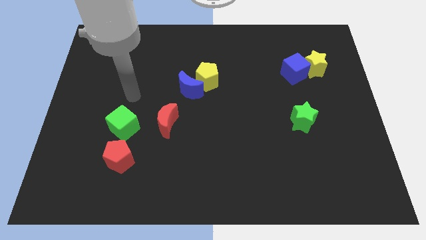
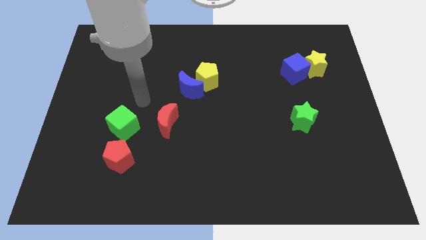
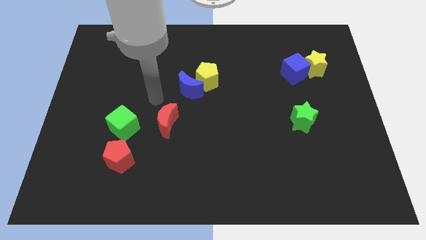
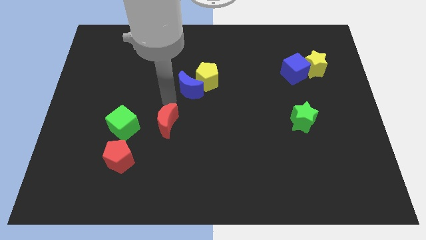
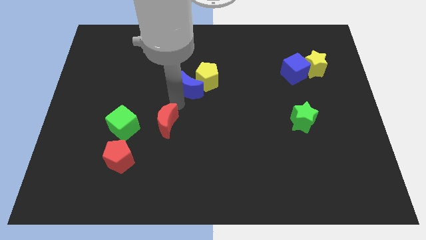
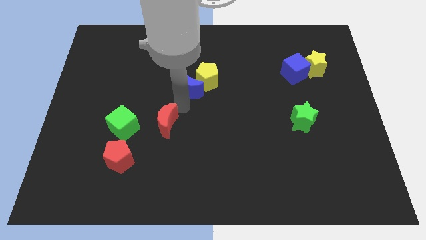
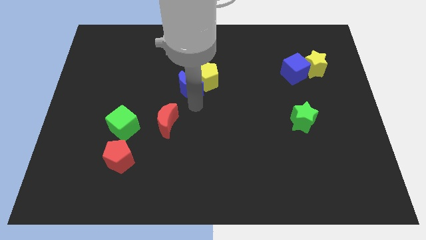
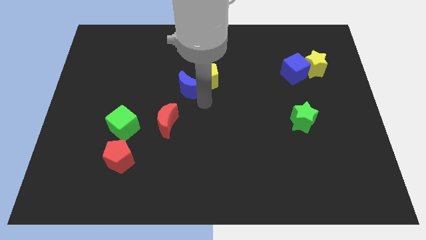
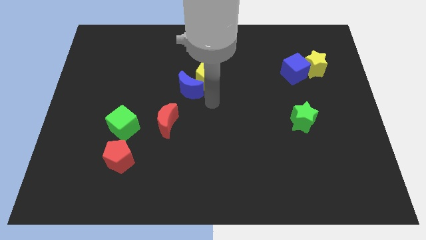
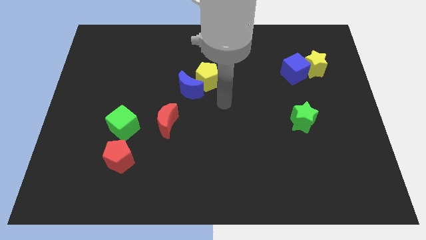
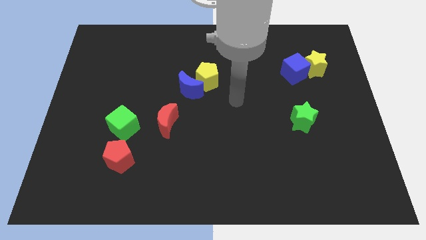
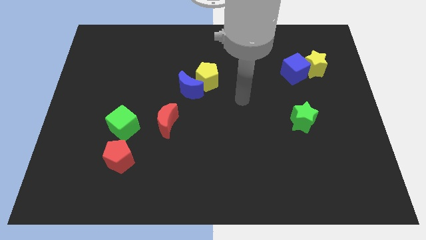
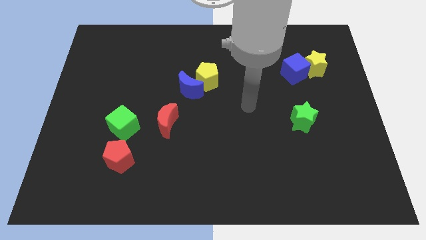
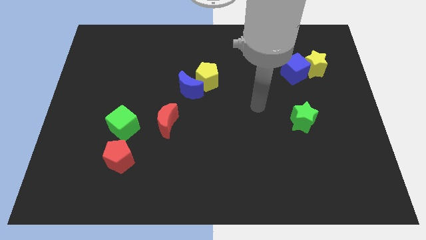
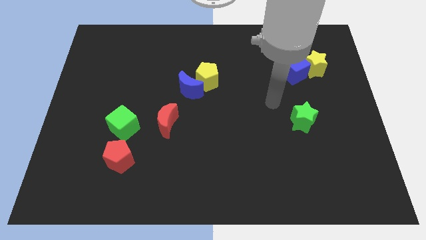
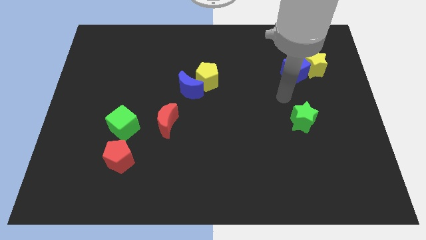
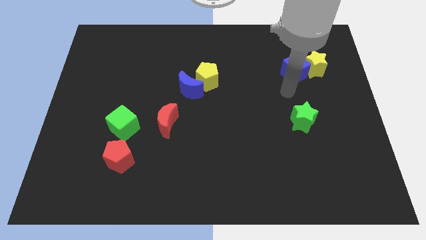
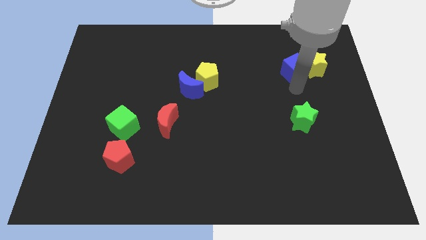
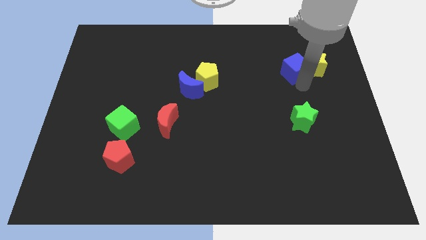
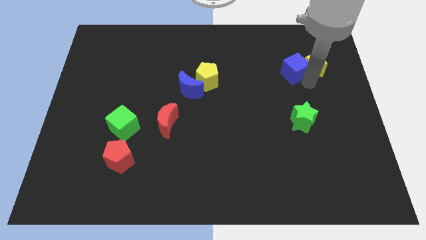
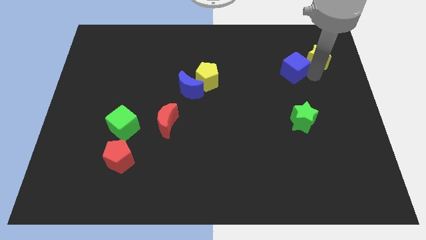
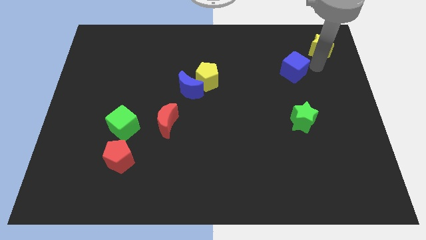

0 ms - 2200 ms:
pull the blue cube apart from the yellow star

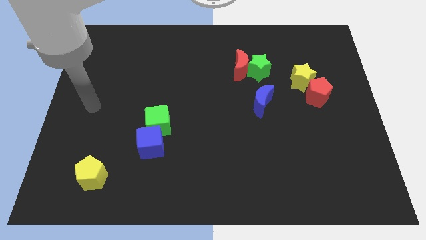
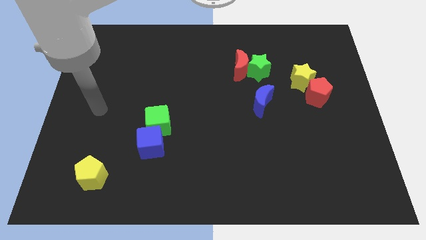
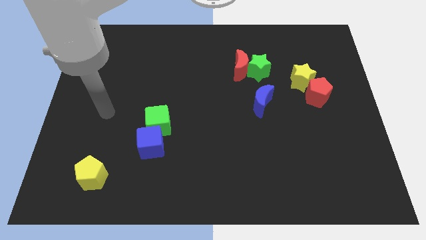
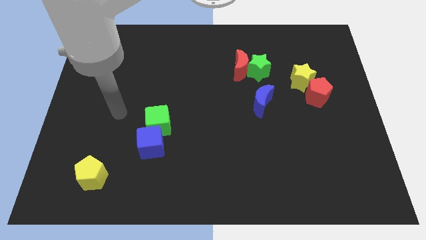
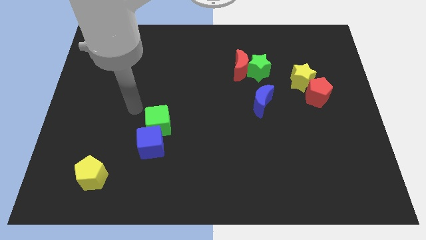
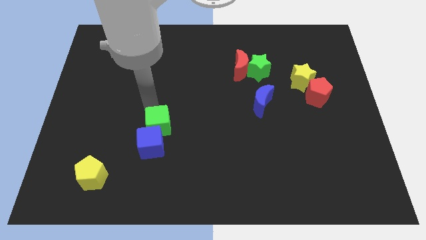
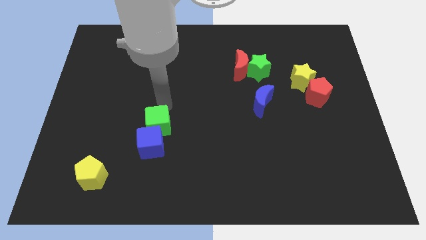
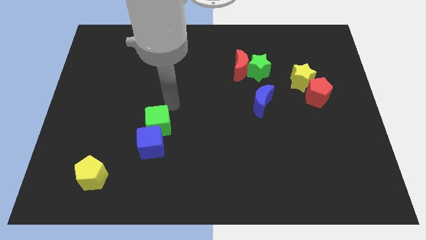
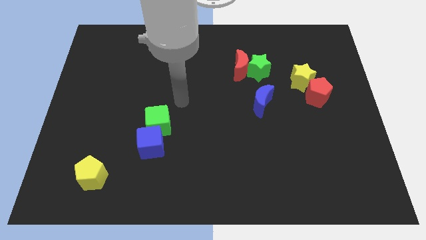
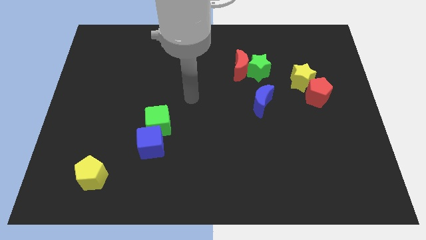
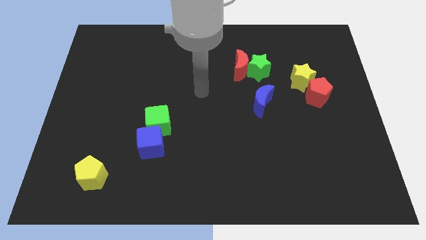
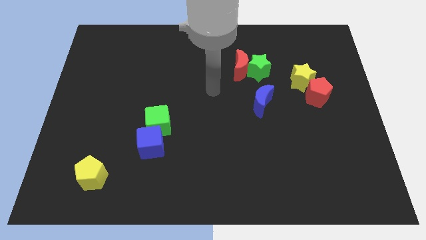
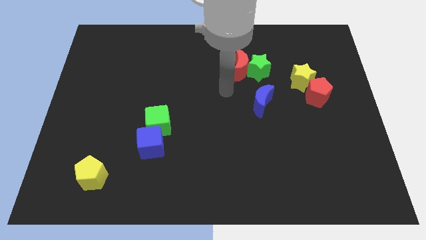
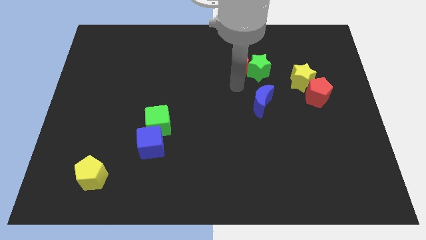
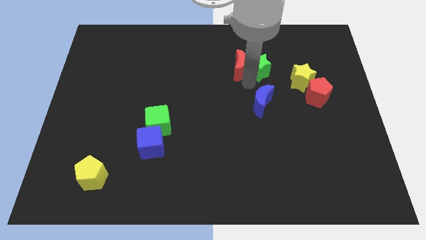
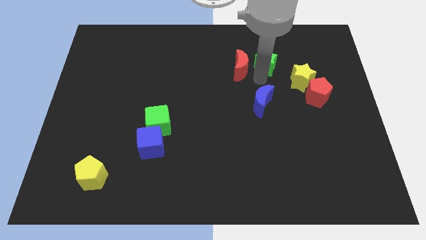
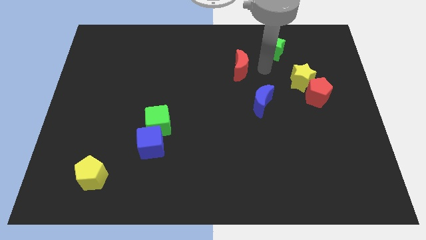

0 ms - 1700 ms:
pull the red moon apart from the green star

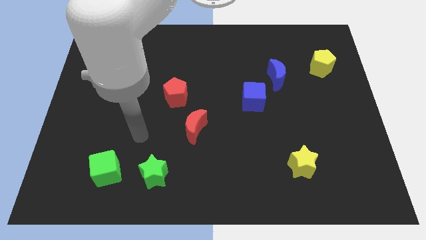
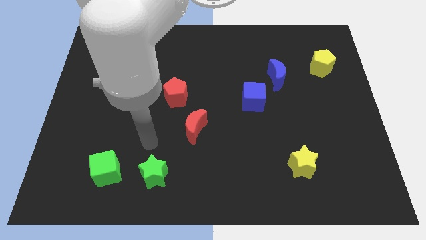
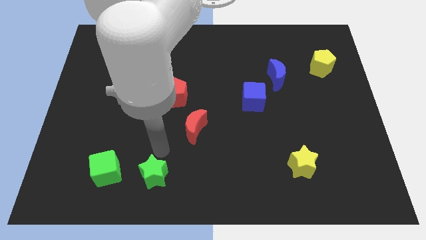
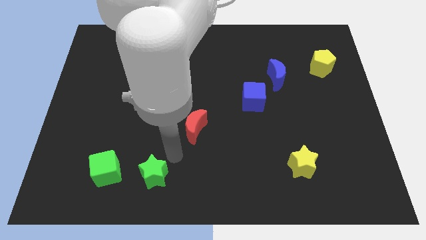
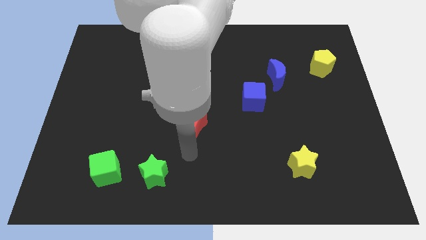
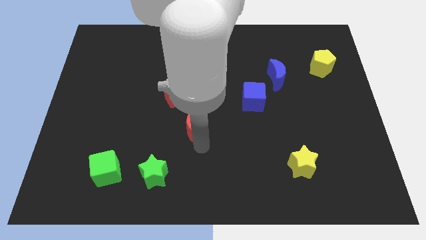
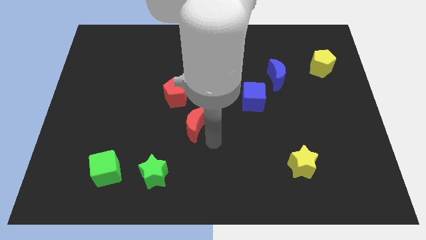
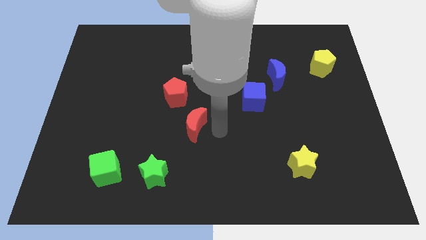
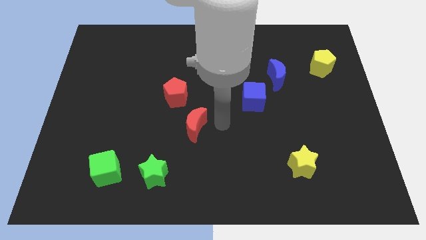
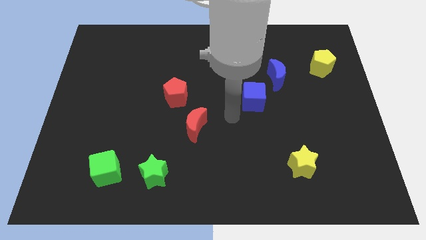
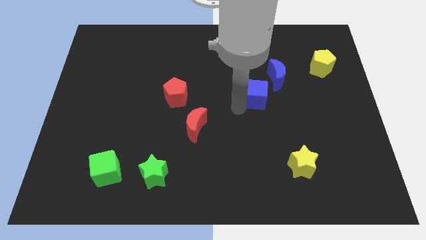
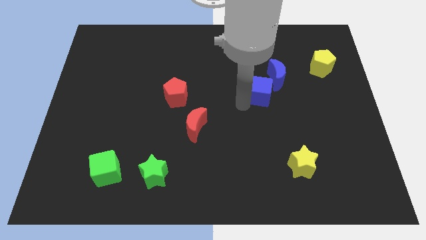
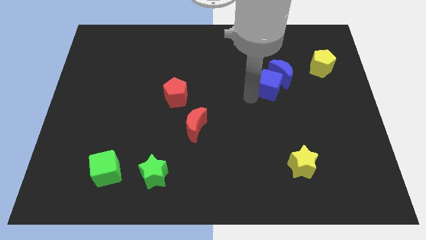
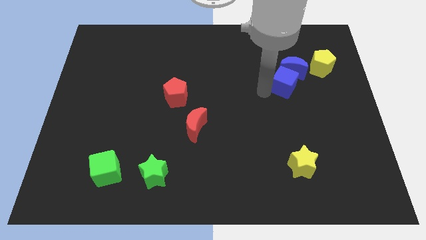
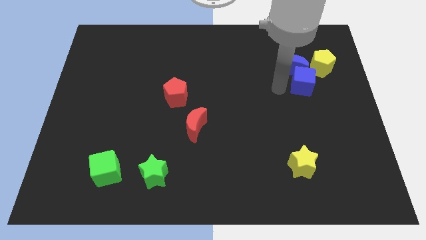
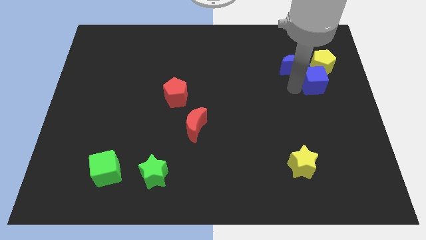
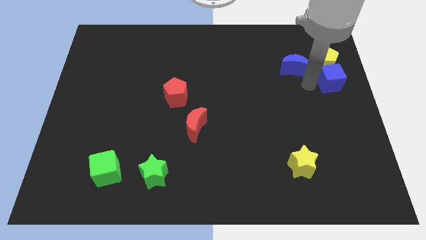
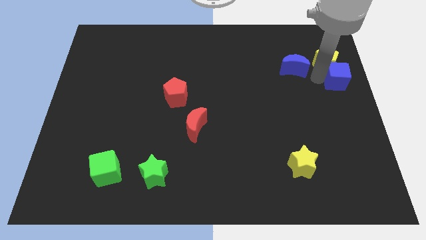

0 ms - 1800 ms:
separate the blue moon from the blue cube

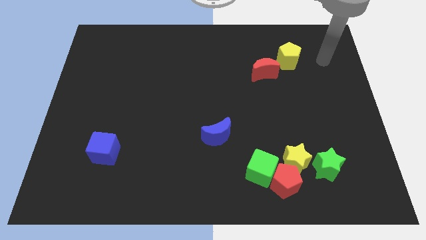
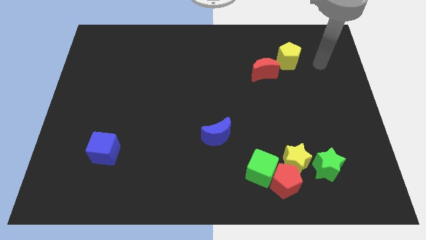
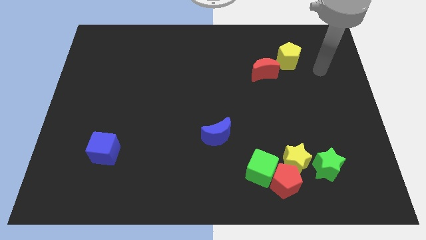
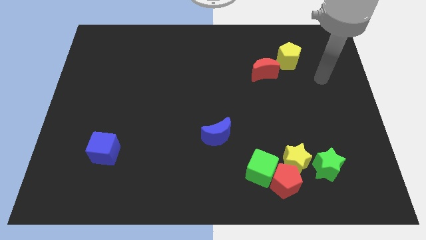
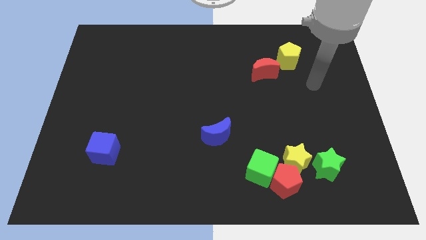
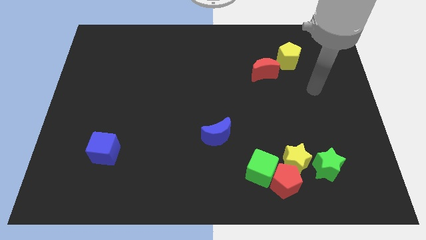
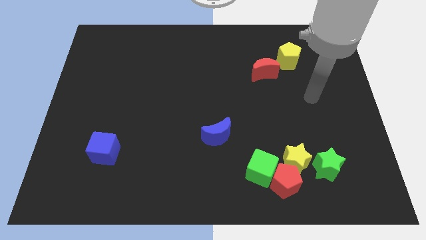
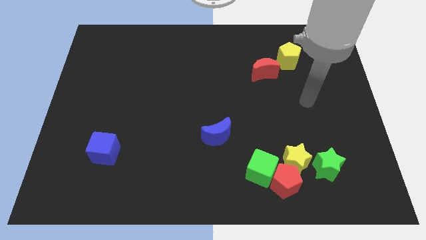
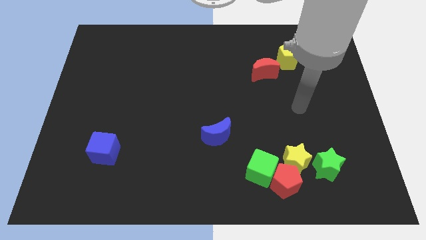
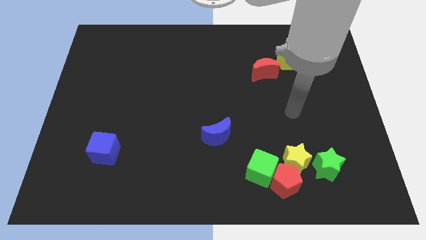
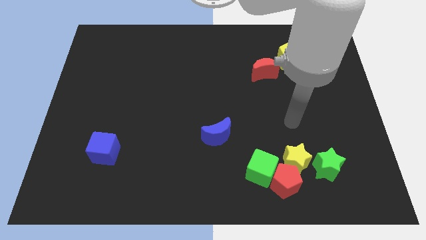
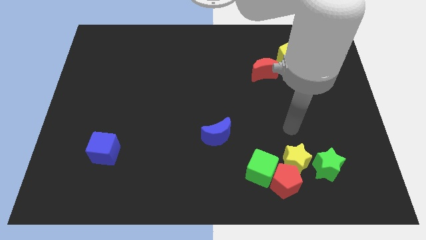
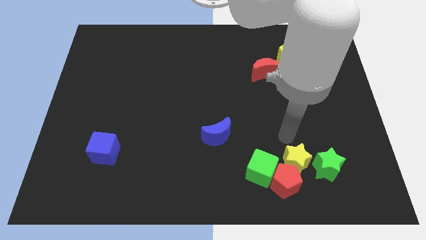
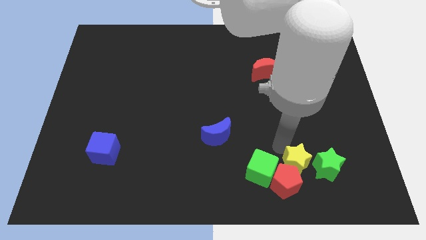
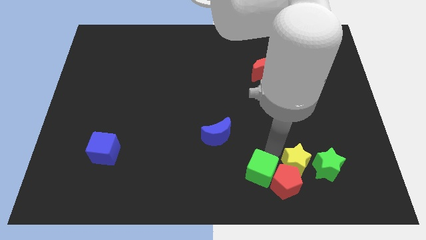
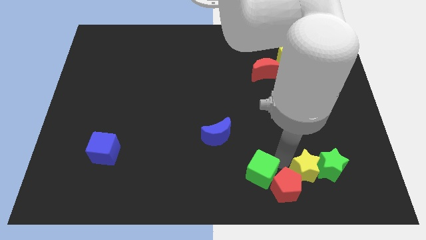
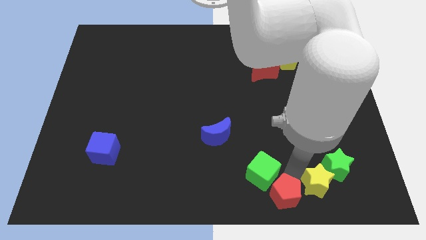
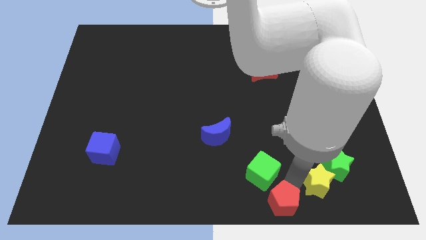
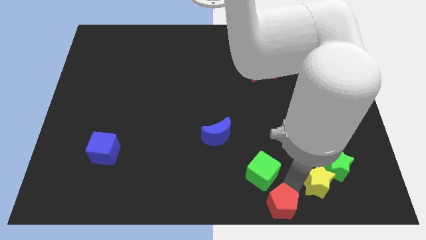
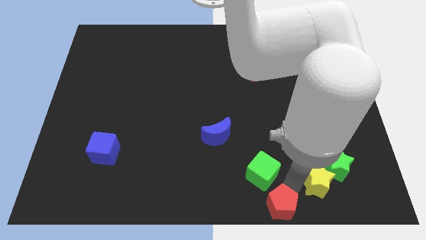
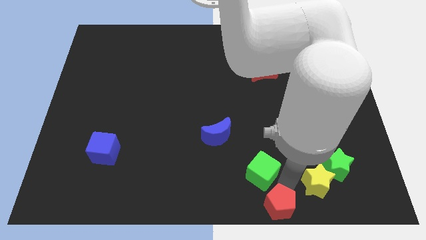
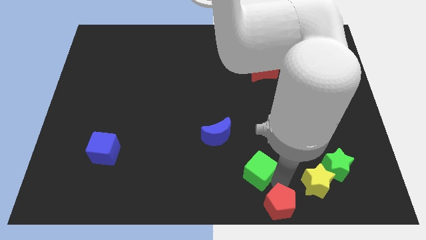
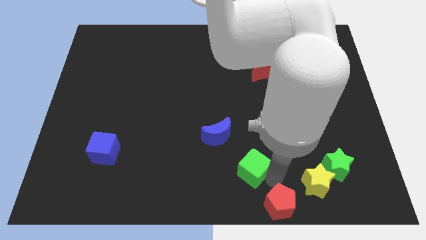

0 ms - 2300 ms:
move the green cube away from the red pentagon and yellow star

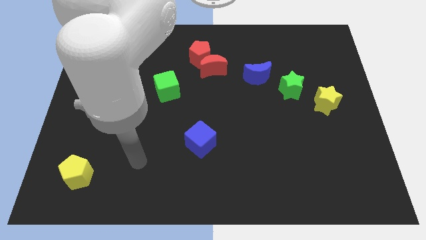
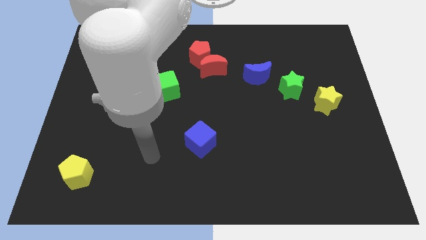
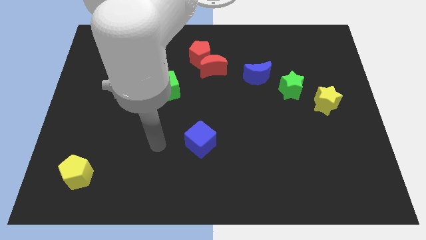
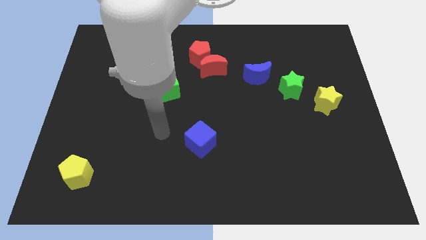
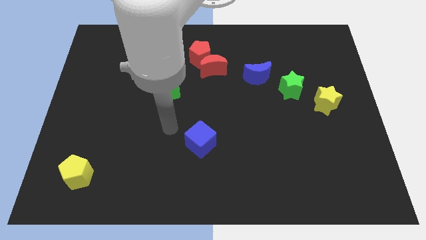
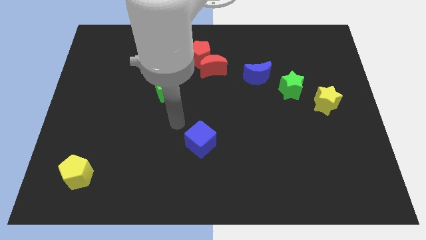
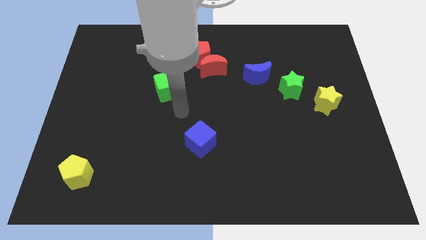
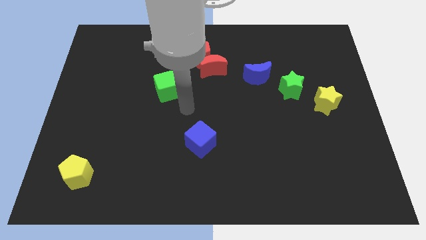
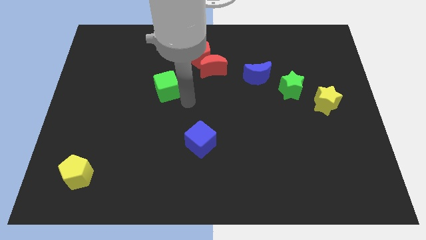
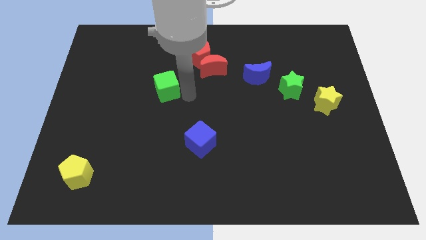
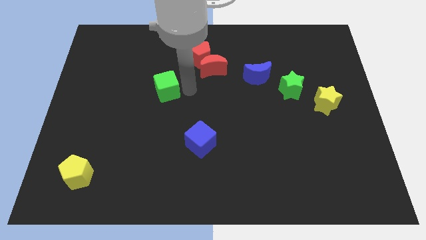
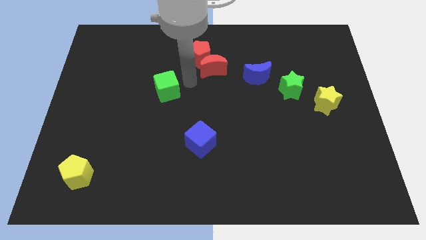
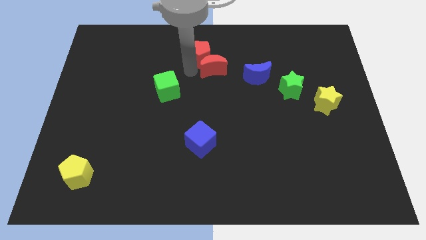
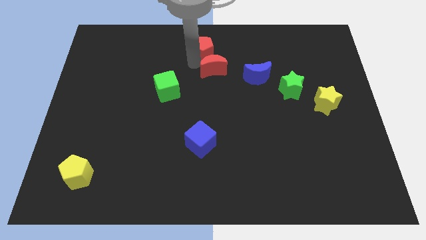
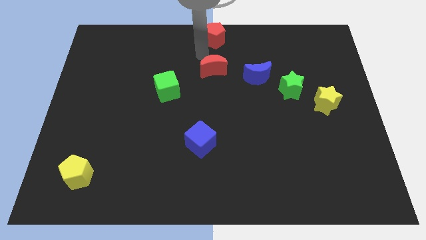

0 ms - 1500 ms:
pull the red moon apart from the red pentagon
